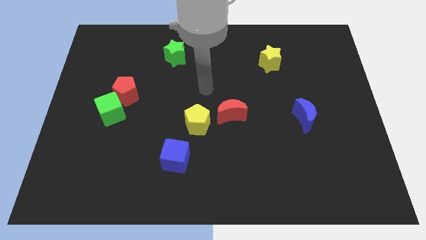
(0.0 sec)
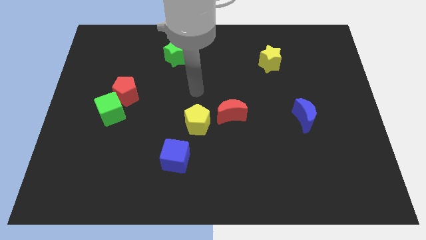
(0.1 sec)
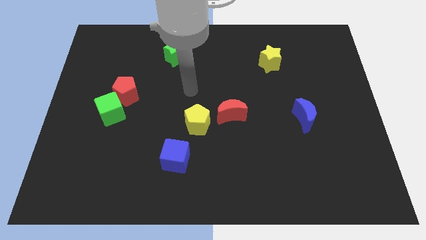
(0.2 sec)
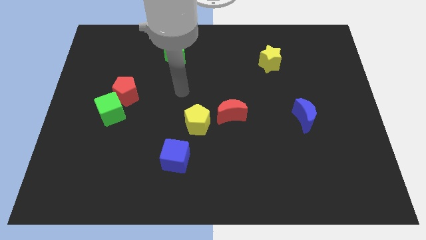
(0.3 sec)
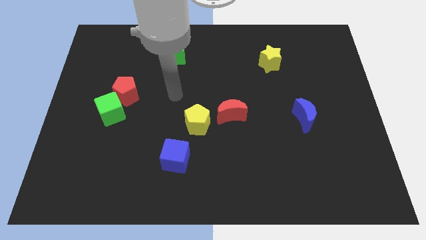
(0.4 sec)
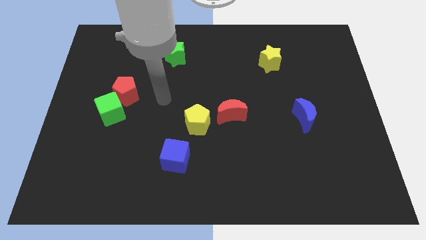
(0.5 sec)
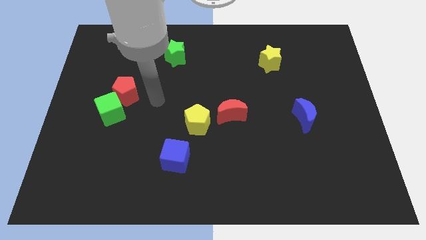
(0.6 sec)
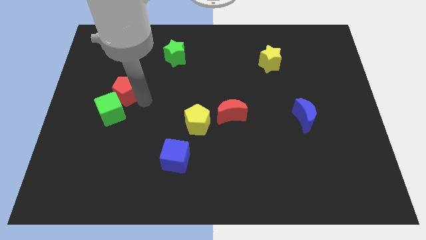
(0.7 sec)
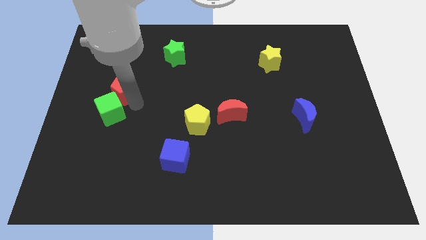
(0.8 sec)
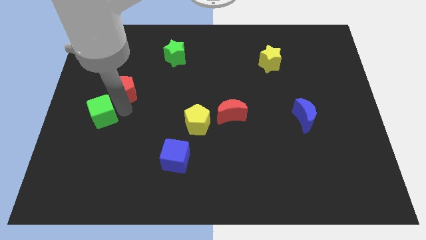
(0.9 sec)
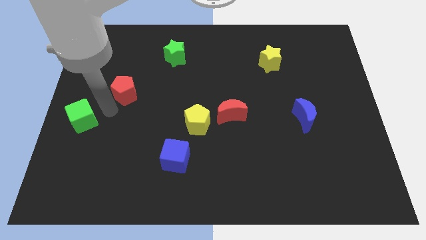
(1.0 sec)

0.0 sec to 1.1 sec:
pull the red pentagon apart from the green cube

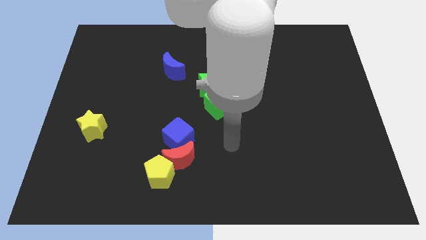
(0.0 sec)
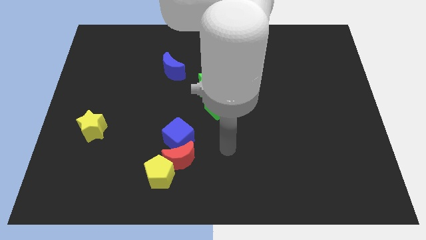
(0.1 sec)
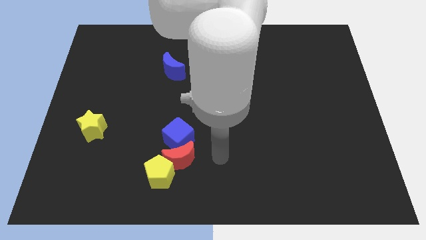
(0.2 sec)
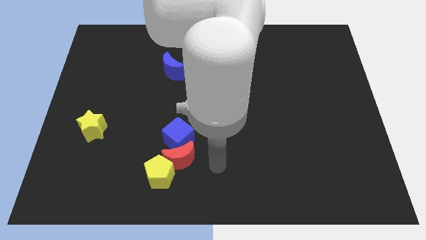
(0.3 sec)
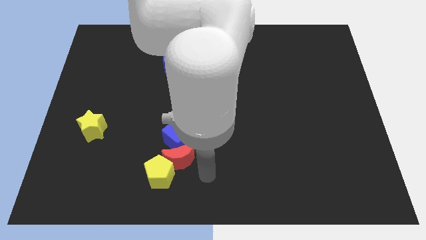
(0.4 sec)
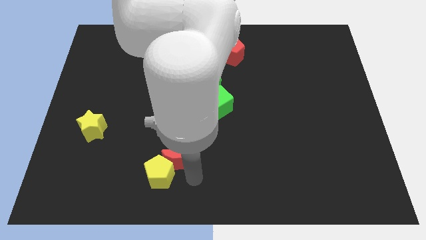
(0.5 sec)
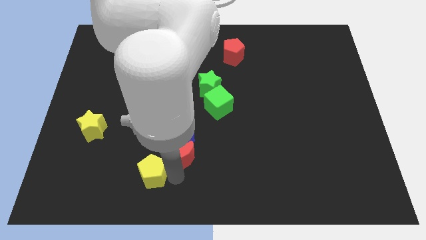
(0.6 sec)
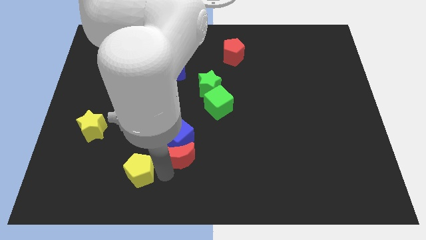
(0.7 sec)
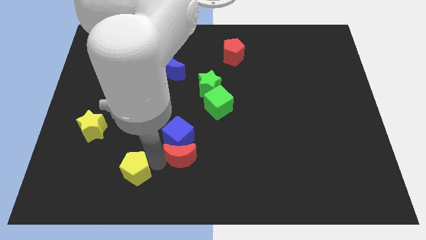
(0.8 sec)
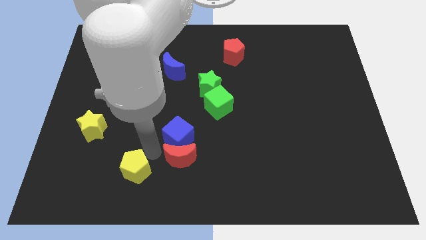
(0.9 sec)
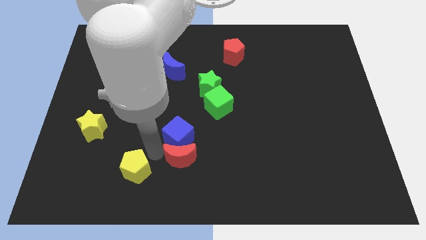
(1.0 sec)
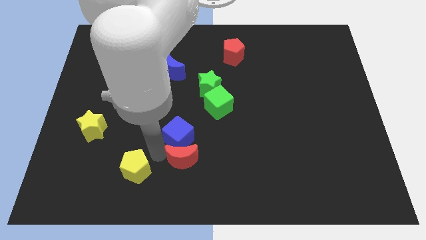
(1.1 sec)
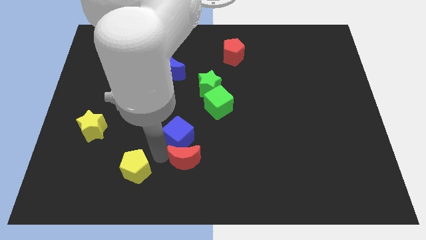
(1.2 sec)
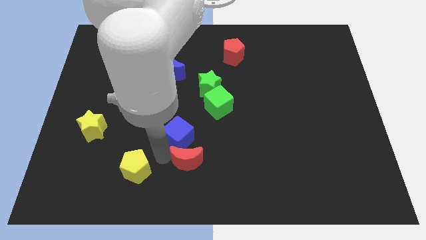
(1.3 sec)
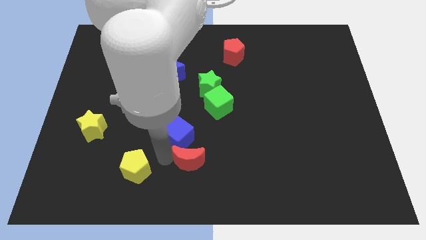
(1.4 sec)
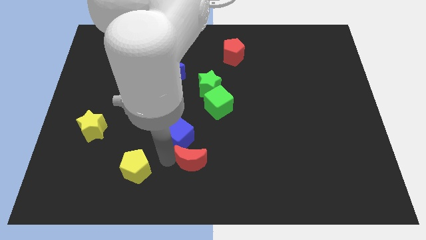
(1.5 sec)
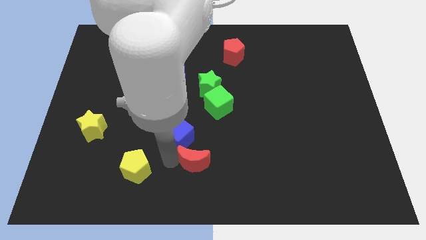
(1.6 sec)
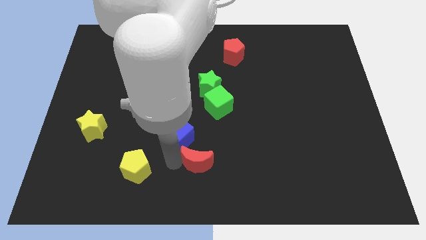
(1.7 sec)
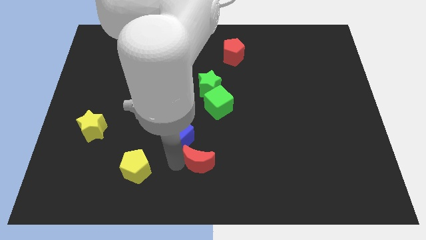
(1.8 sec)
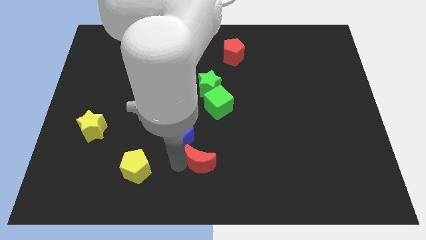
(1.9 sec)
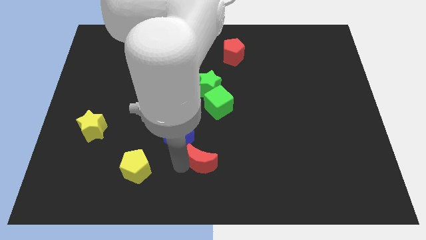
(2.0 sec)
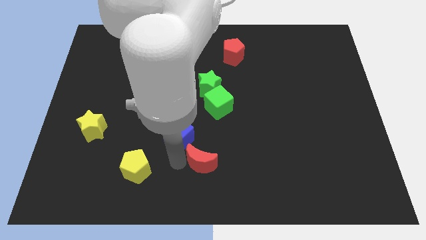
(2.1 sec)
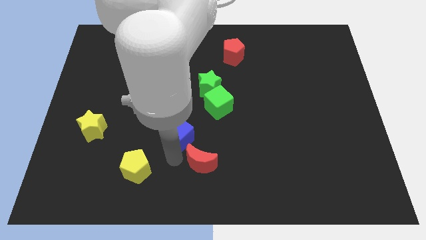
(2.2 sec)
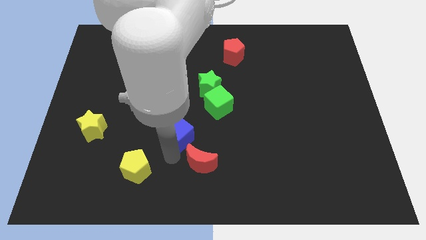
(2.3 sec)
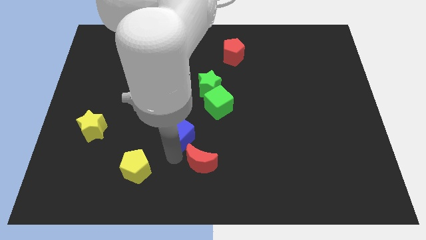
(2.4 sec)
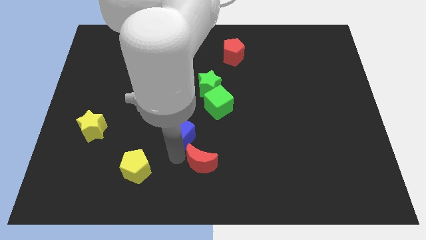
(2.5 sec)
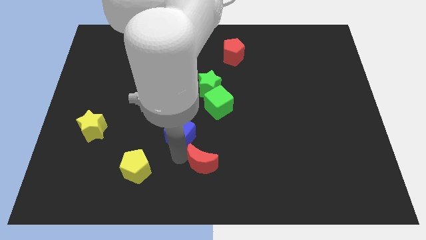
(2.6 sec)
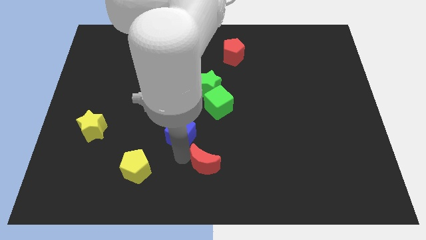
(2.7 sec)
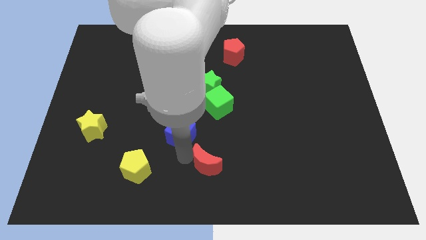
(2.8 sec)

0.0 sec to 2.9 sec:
move the red moon away from the blue cube and yellow pentagon

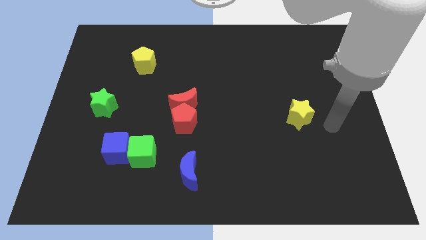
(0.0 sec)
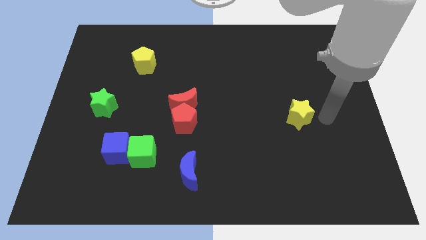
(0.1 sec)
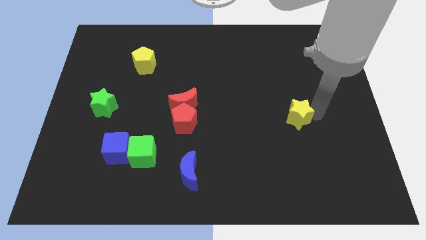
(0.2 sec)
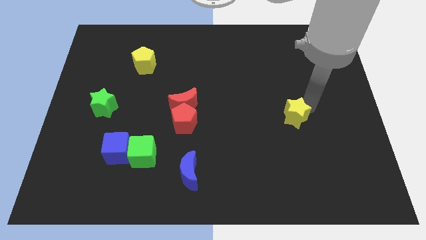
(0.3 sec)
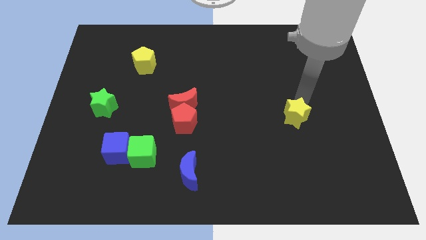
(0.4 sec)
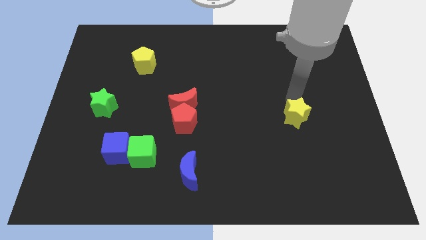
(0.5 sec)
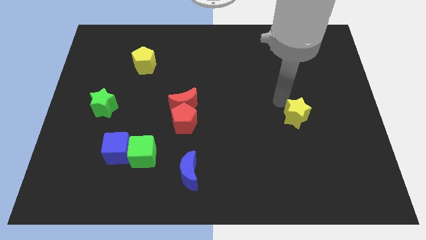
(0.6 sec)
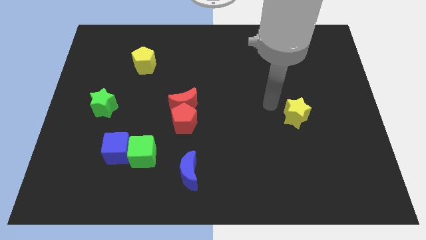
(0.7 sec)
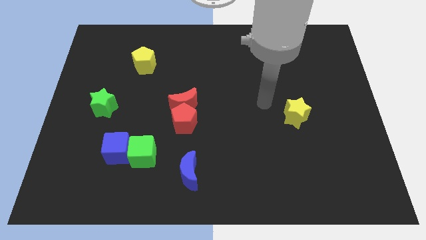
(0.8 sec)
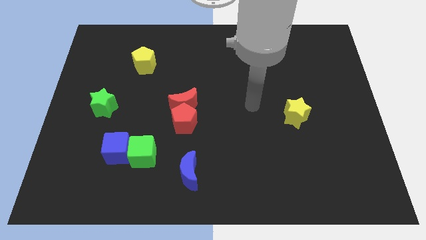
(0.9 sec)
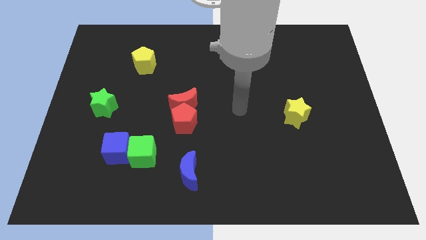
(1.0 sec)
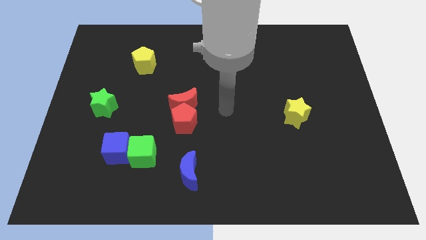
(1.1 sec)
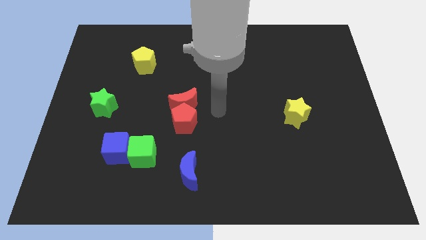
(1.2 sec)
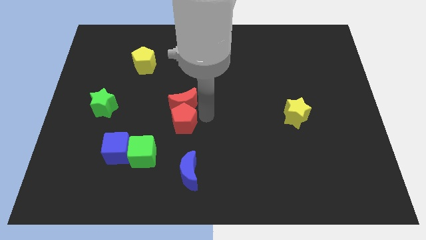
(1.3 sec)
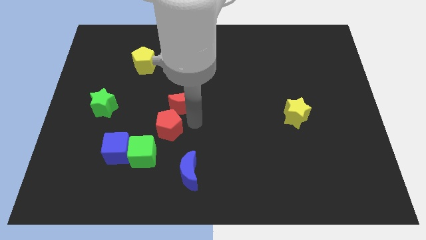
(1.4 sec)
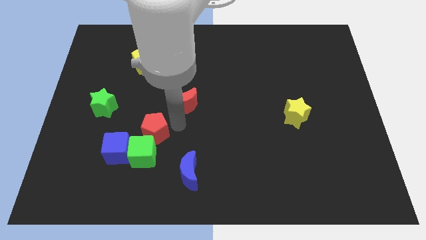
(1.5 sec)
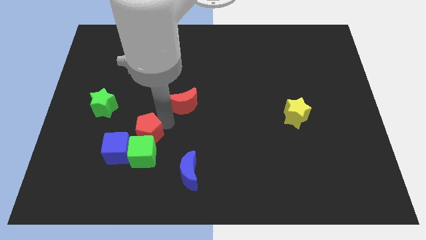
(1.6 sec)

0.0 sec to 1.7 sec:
move the red moon away from the red pentagon

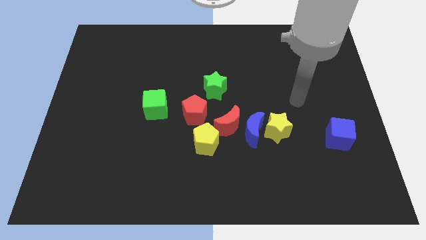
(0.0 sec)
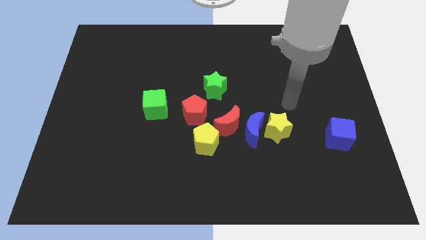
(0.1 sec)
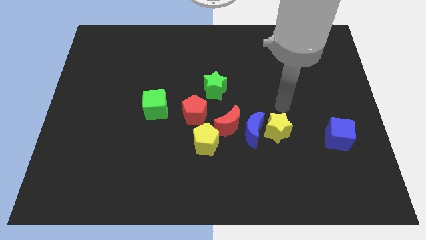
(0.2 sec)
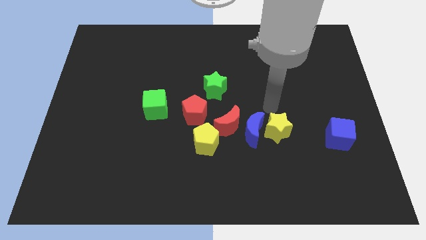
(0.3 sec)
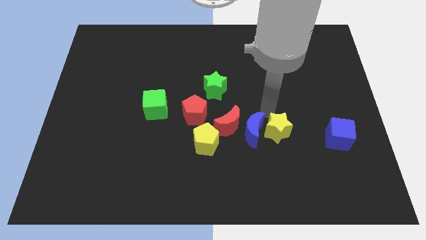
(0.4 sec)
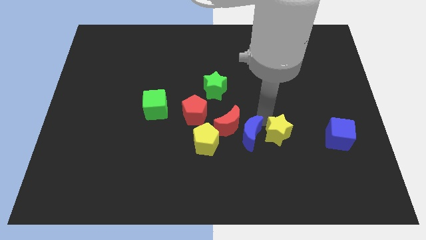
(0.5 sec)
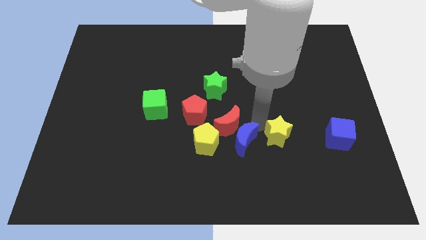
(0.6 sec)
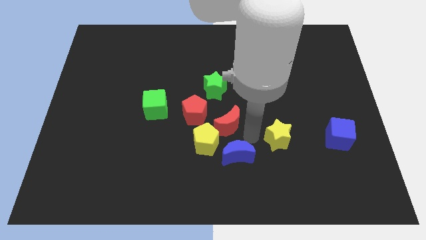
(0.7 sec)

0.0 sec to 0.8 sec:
pull the yellow star apart from the blue moon

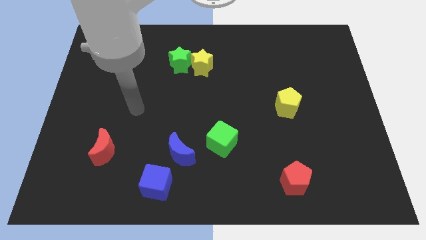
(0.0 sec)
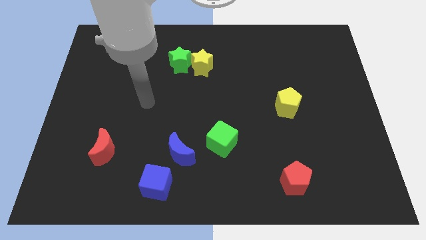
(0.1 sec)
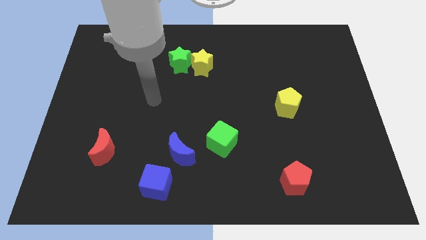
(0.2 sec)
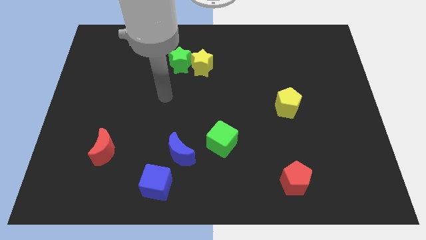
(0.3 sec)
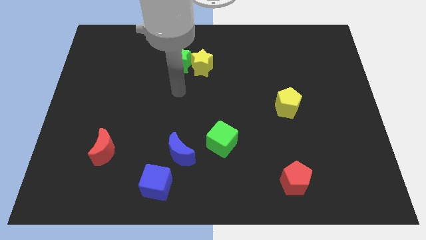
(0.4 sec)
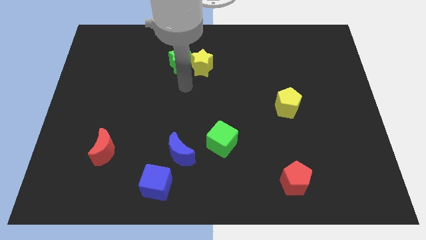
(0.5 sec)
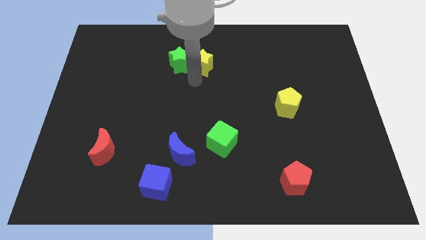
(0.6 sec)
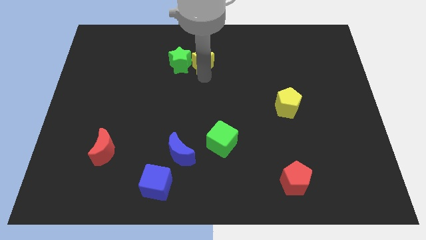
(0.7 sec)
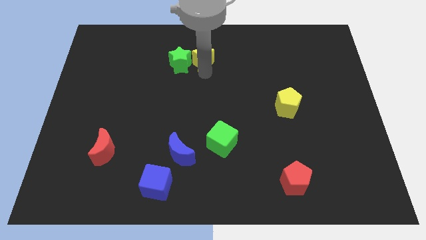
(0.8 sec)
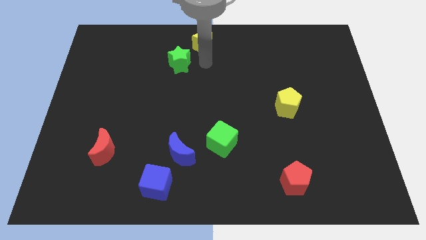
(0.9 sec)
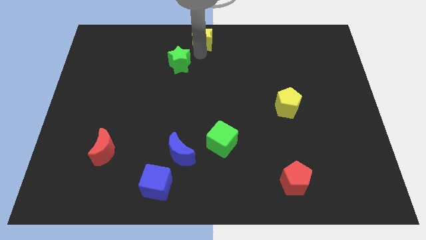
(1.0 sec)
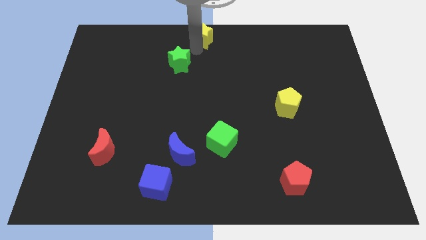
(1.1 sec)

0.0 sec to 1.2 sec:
move the green star away from the yellow star

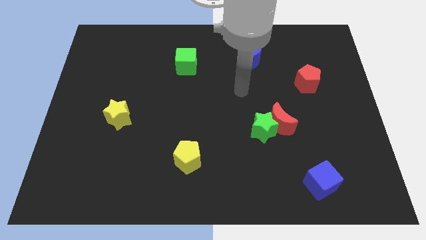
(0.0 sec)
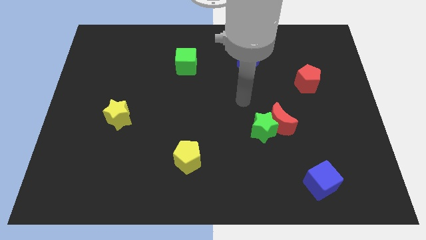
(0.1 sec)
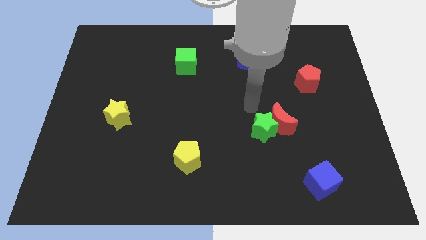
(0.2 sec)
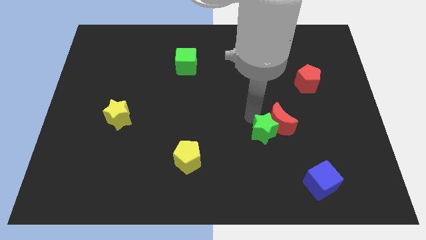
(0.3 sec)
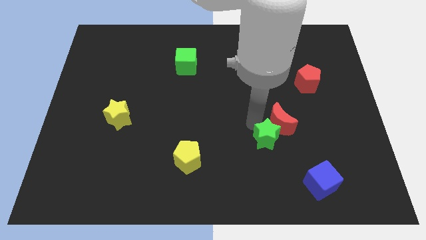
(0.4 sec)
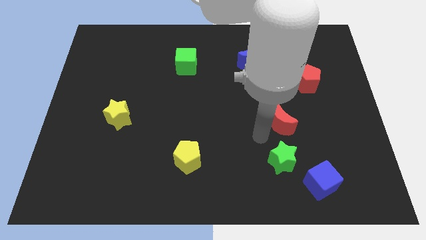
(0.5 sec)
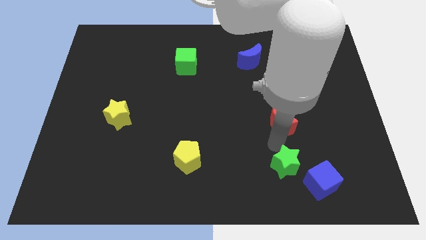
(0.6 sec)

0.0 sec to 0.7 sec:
move the red moon away from the green star

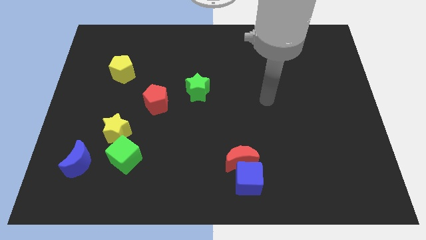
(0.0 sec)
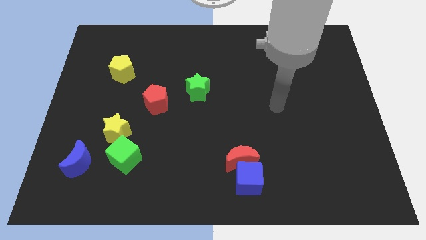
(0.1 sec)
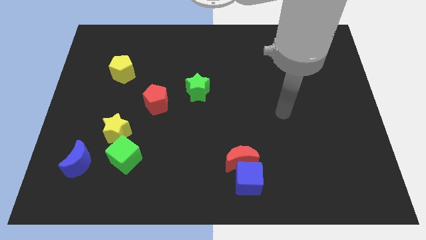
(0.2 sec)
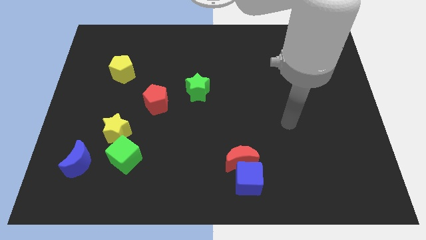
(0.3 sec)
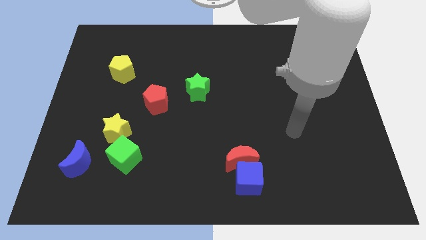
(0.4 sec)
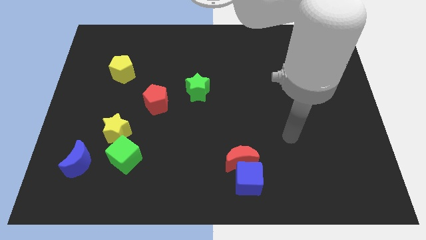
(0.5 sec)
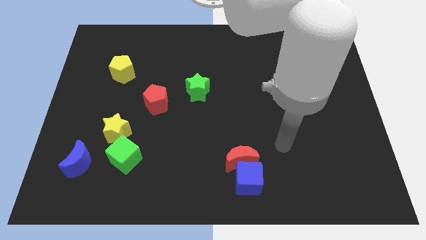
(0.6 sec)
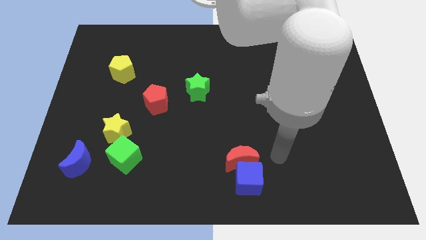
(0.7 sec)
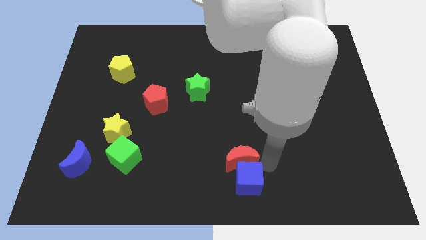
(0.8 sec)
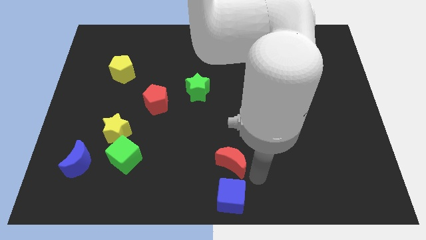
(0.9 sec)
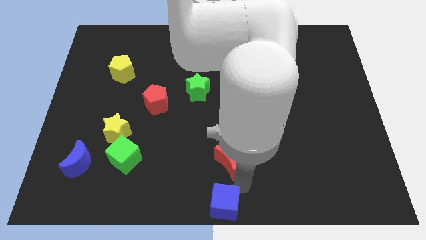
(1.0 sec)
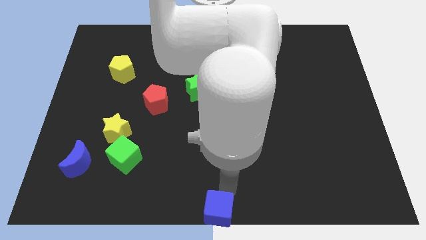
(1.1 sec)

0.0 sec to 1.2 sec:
pull the red moon apart from the blue cube
